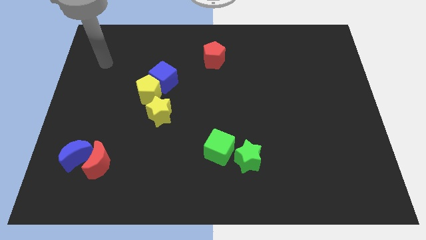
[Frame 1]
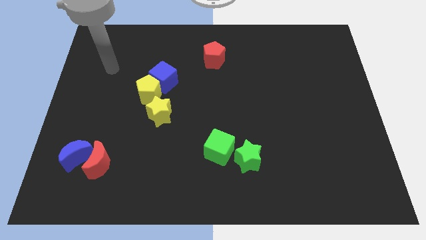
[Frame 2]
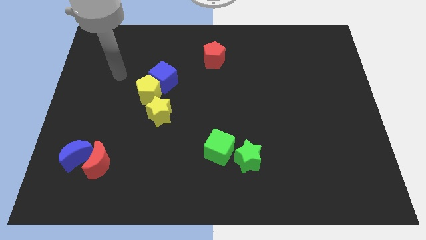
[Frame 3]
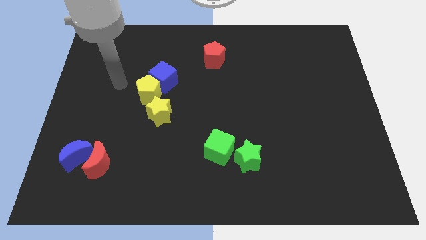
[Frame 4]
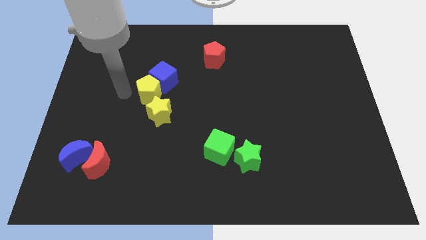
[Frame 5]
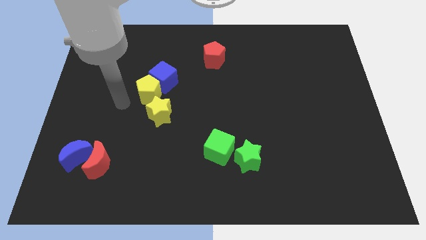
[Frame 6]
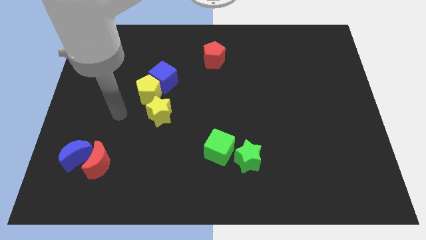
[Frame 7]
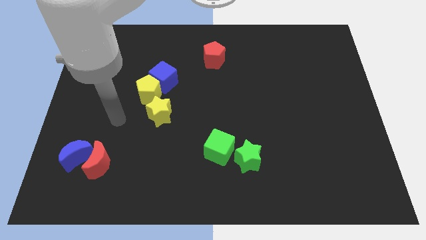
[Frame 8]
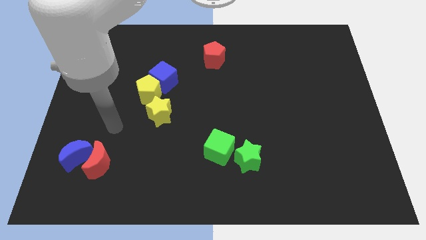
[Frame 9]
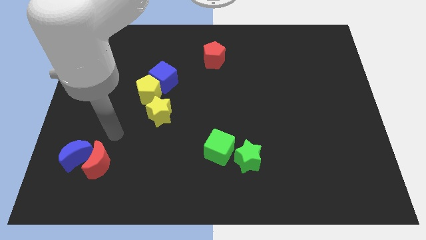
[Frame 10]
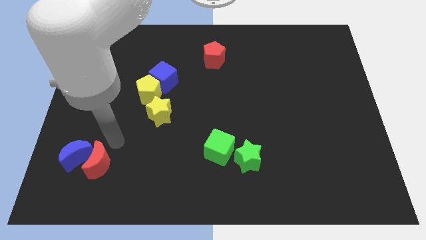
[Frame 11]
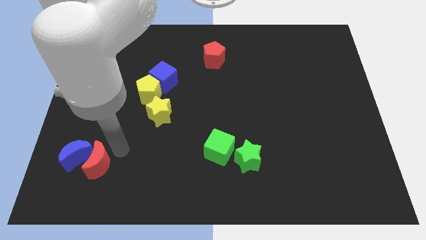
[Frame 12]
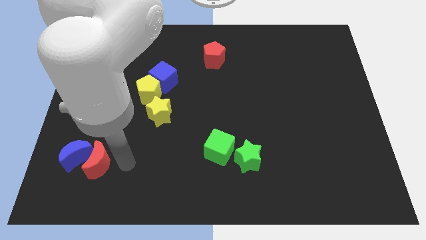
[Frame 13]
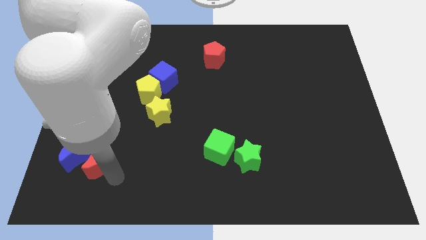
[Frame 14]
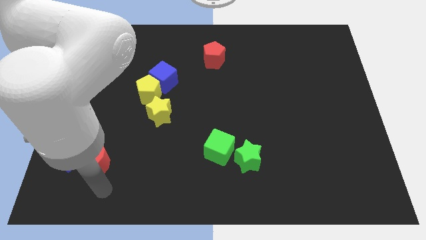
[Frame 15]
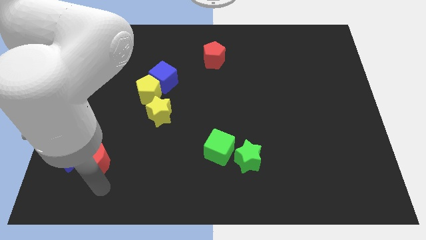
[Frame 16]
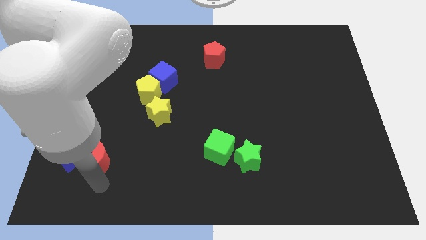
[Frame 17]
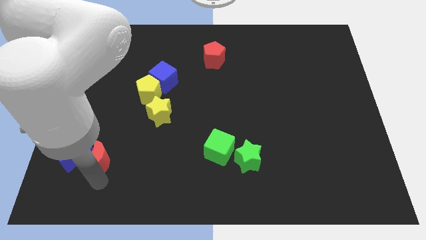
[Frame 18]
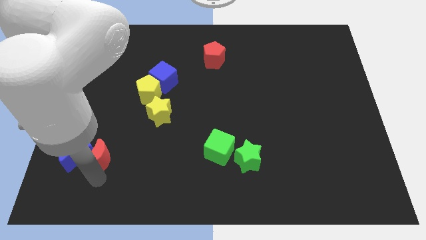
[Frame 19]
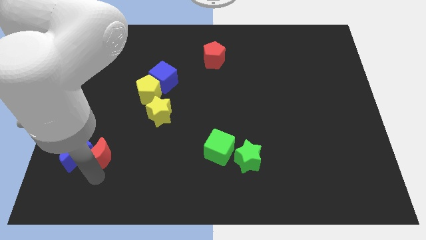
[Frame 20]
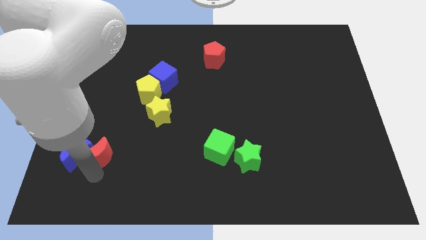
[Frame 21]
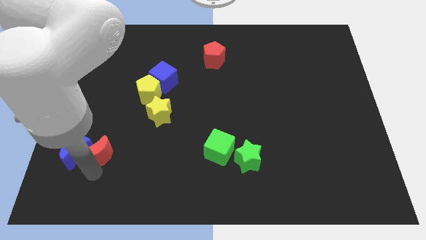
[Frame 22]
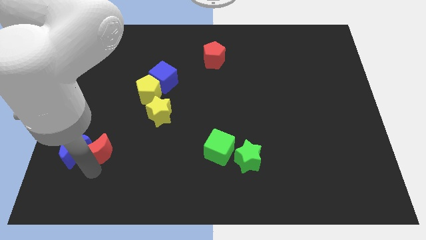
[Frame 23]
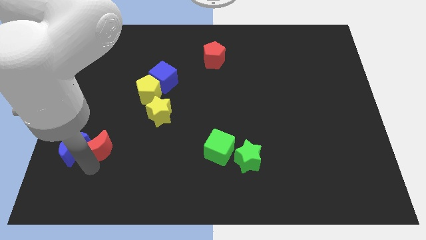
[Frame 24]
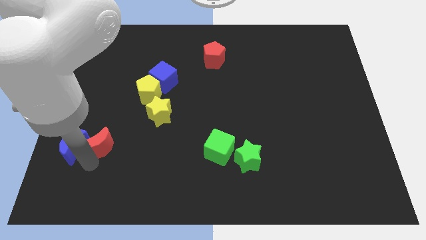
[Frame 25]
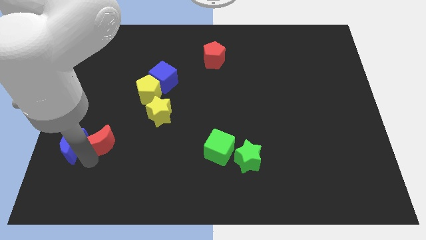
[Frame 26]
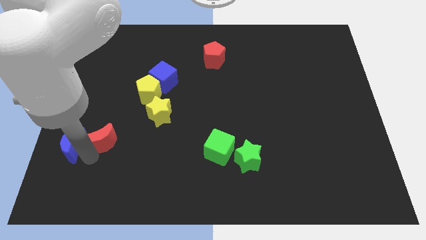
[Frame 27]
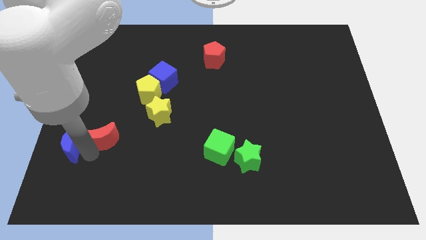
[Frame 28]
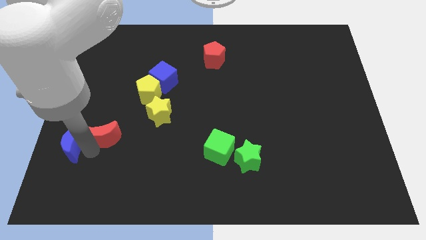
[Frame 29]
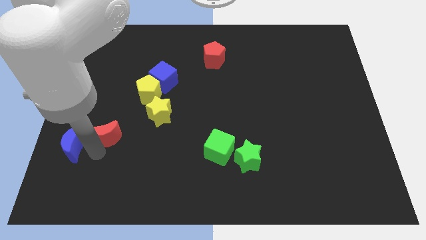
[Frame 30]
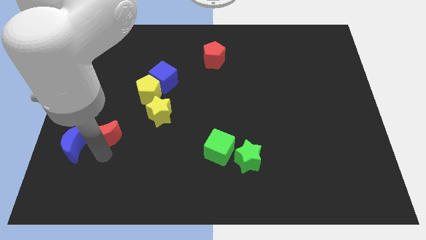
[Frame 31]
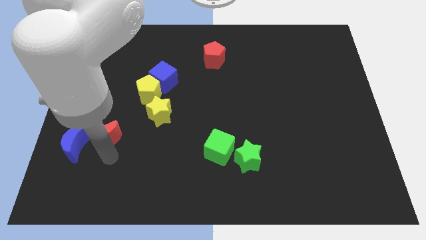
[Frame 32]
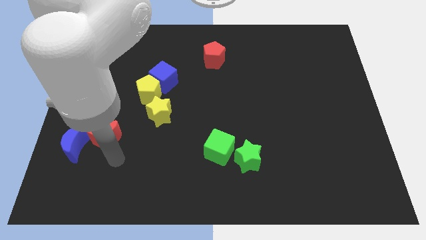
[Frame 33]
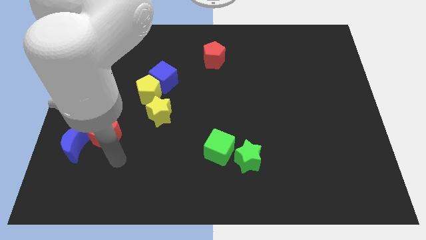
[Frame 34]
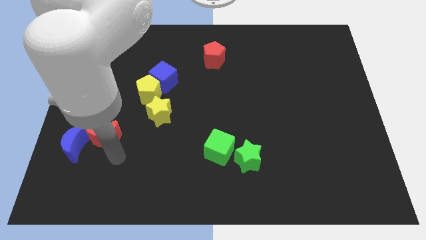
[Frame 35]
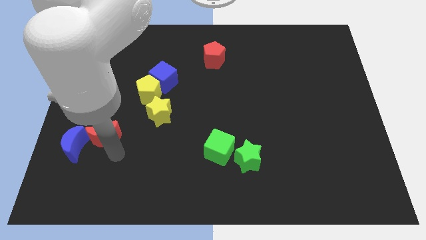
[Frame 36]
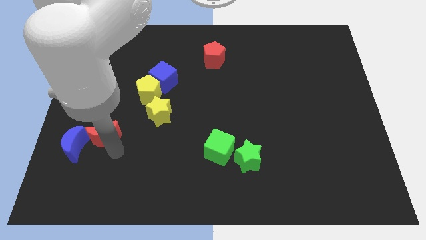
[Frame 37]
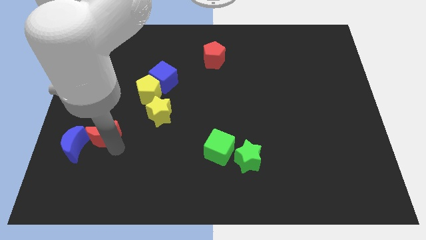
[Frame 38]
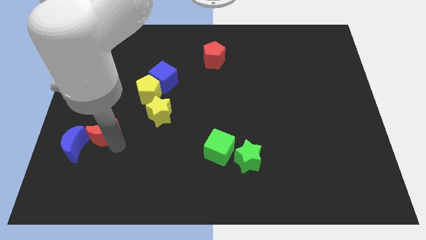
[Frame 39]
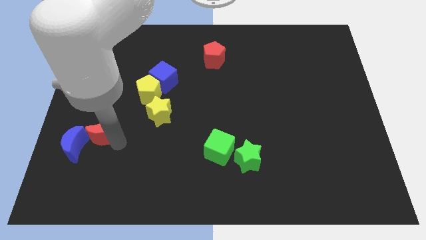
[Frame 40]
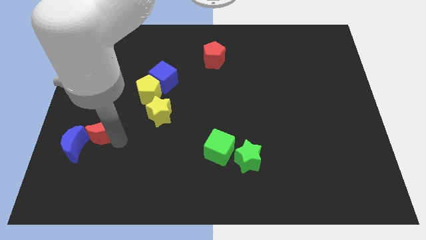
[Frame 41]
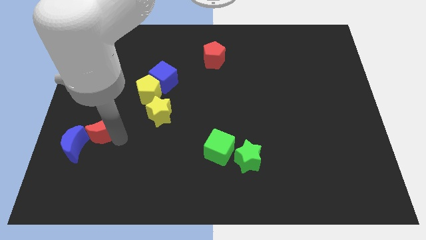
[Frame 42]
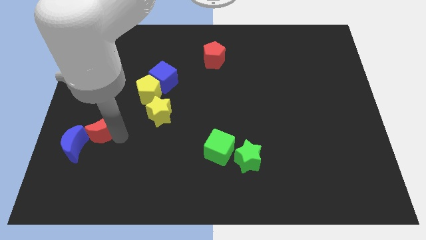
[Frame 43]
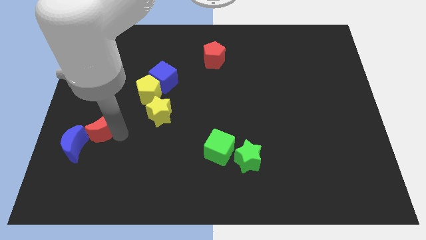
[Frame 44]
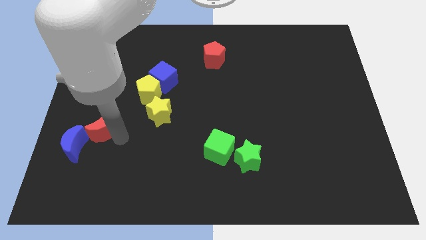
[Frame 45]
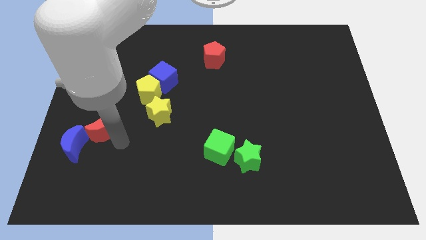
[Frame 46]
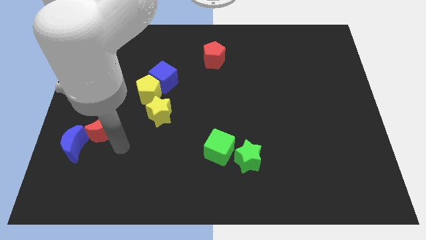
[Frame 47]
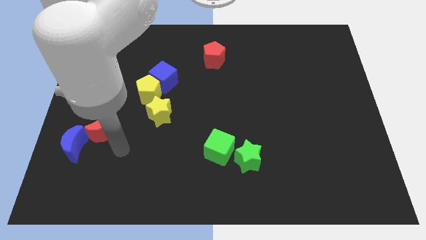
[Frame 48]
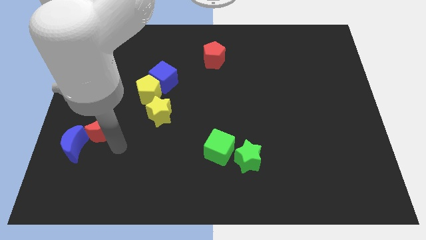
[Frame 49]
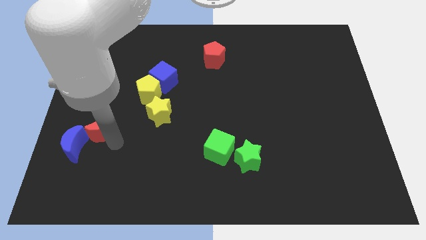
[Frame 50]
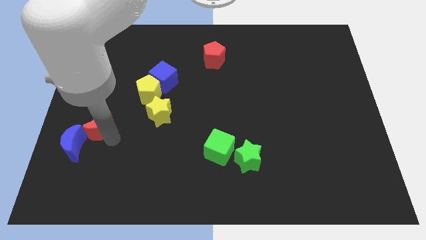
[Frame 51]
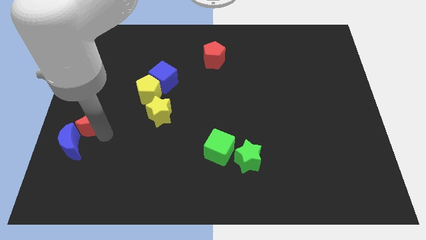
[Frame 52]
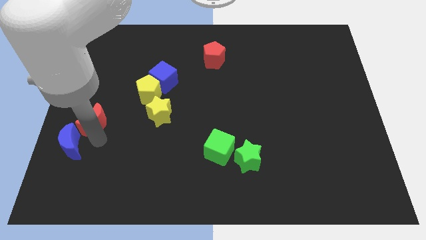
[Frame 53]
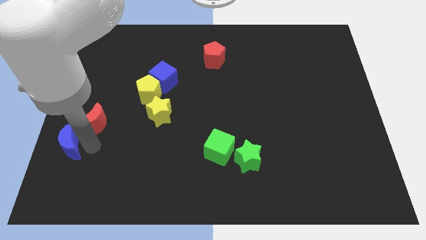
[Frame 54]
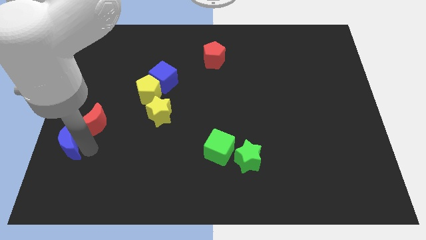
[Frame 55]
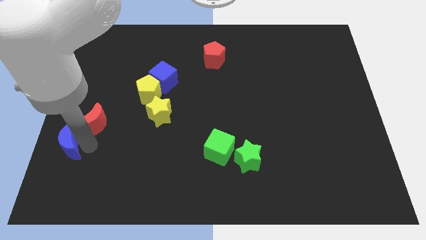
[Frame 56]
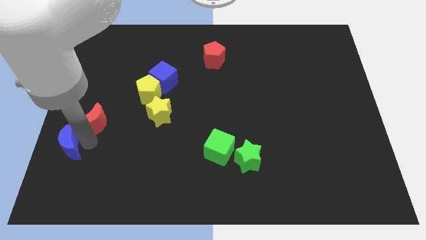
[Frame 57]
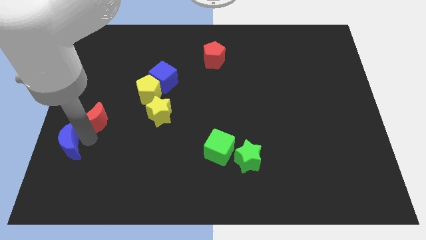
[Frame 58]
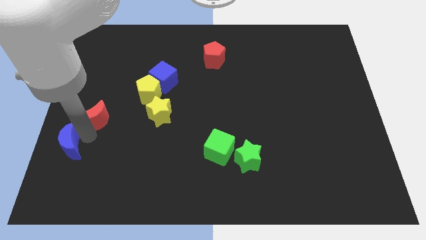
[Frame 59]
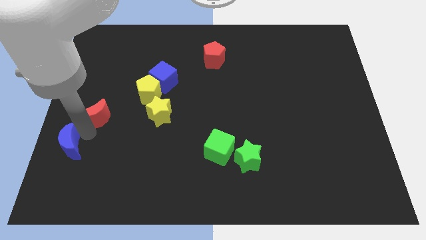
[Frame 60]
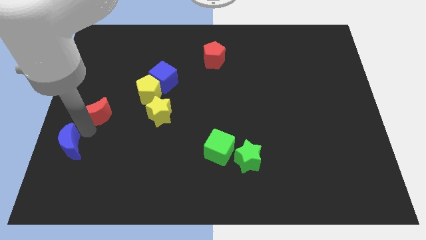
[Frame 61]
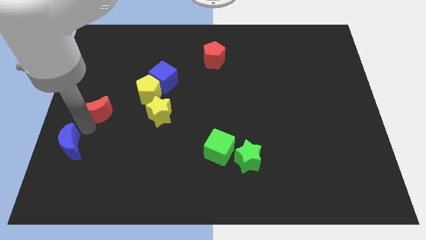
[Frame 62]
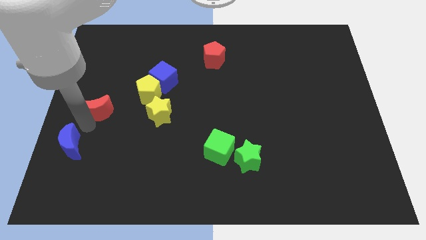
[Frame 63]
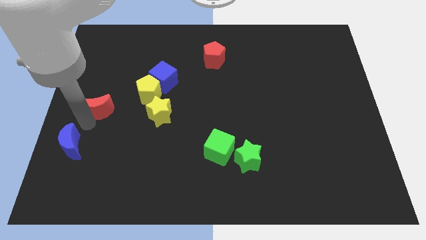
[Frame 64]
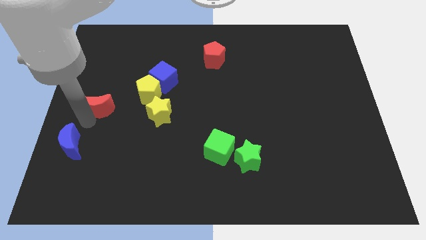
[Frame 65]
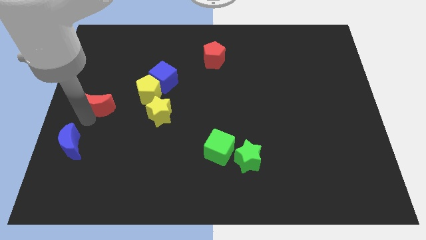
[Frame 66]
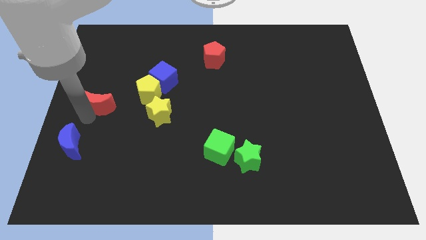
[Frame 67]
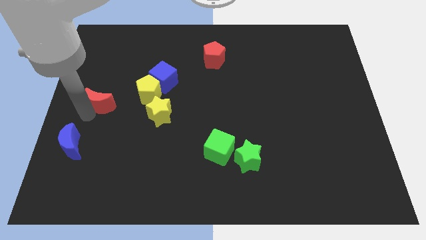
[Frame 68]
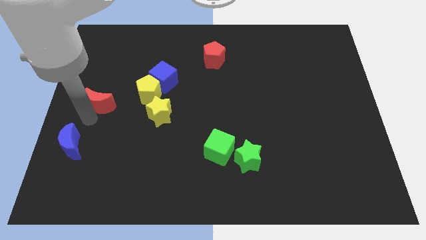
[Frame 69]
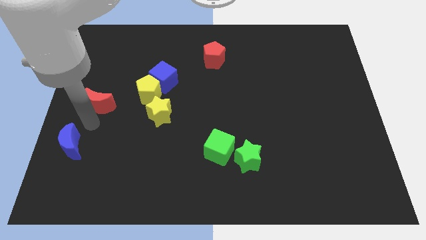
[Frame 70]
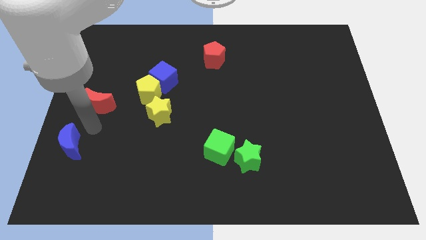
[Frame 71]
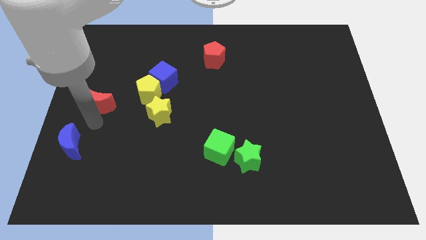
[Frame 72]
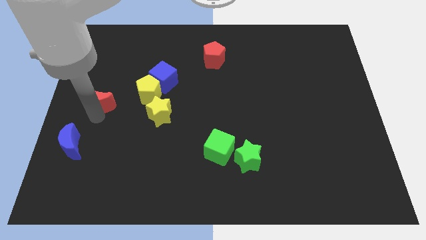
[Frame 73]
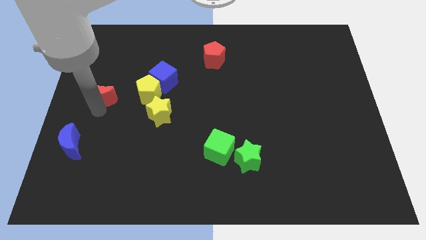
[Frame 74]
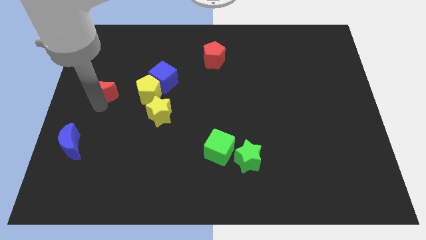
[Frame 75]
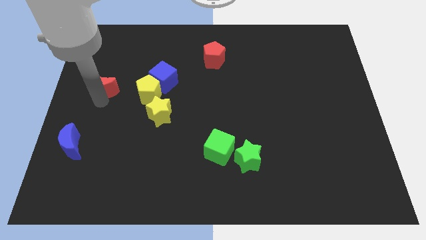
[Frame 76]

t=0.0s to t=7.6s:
slide the red moon up
